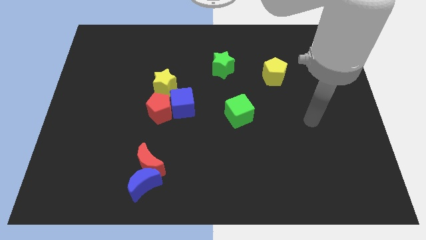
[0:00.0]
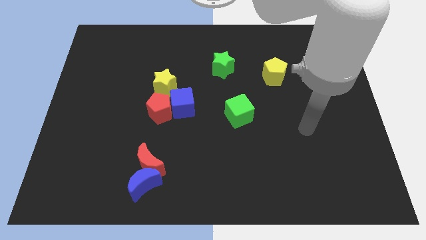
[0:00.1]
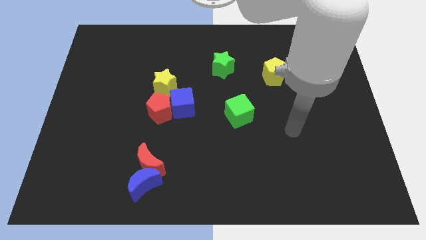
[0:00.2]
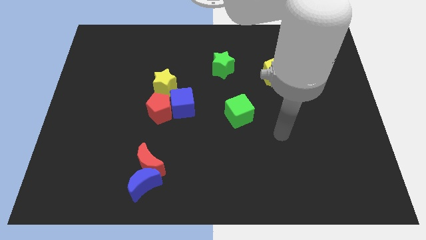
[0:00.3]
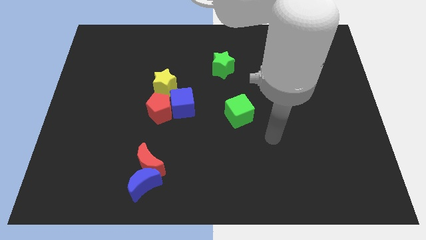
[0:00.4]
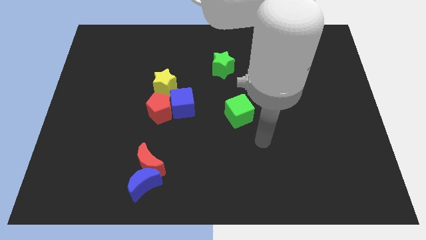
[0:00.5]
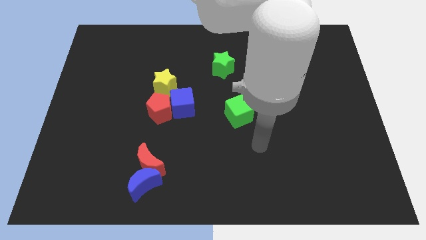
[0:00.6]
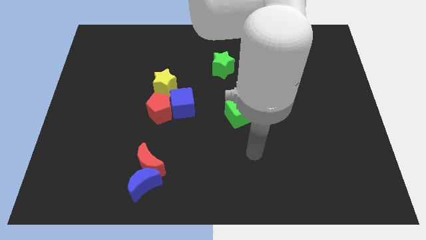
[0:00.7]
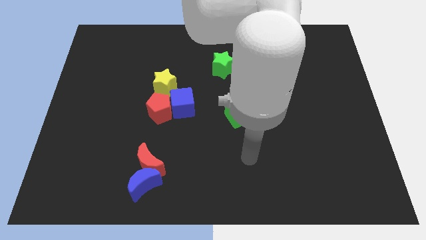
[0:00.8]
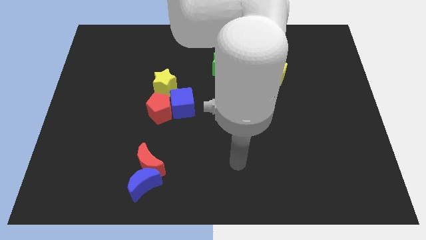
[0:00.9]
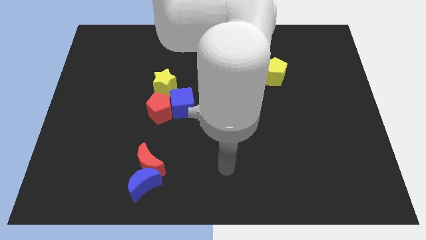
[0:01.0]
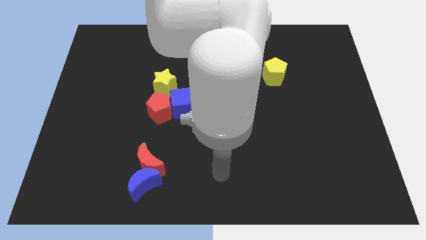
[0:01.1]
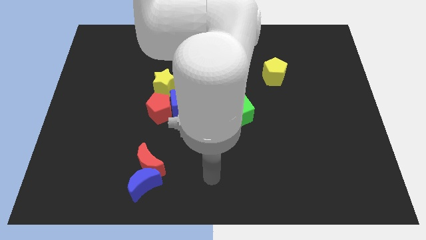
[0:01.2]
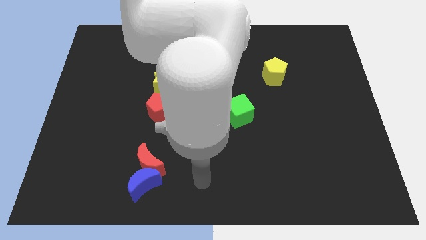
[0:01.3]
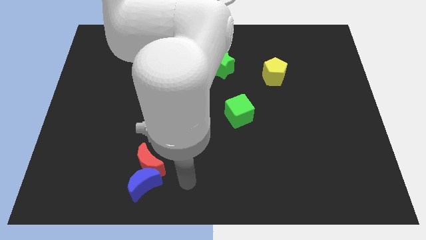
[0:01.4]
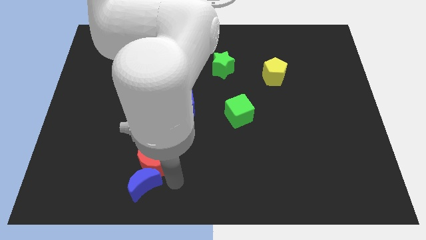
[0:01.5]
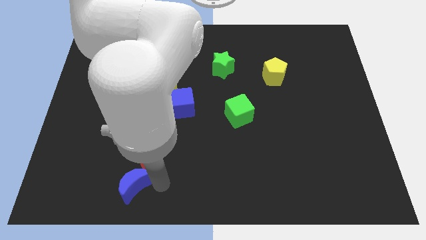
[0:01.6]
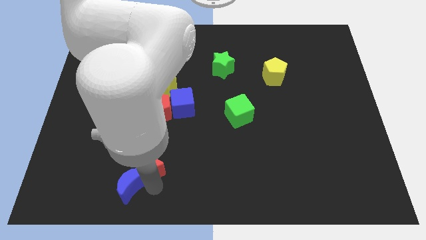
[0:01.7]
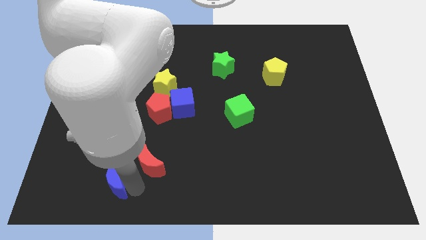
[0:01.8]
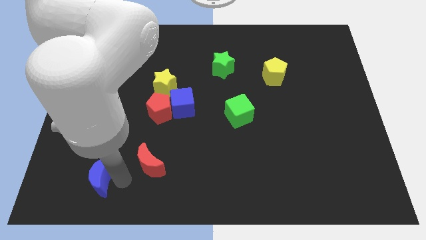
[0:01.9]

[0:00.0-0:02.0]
pull the red moon apart from the blue moon

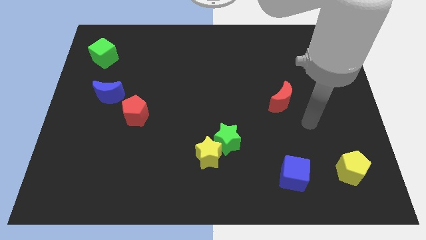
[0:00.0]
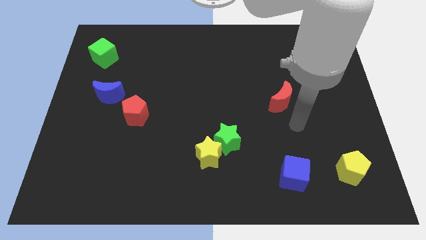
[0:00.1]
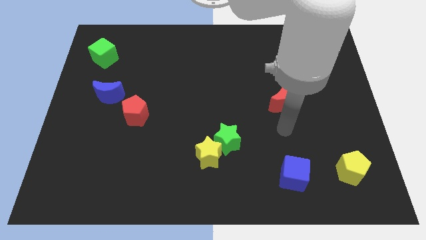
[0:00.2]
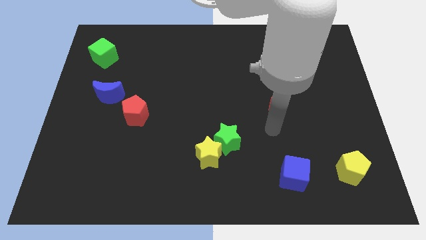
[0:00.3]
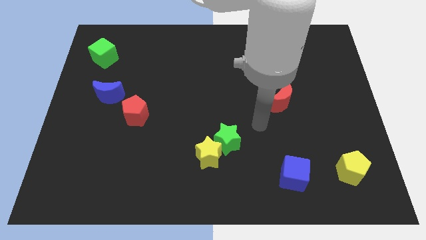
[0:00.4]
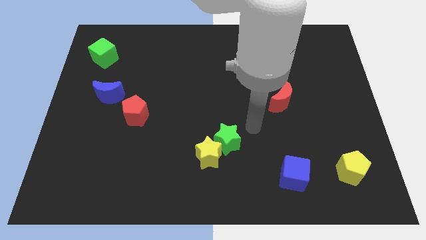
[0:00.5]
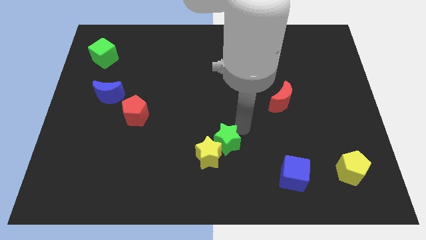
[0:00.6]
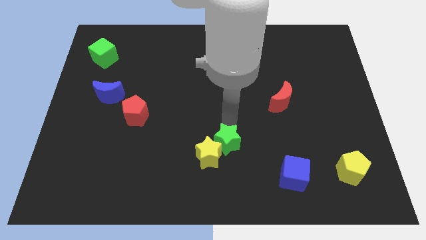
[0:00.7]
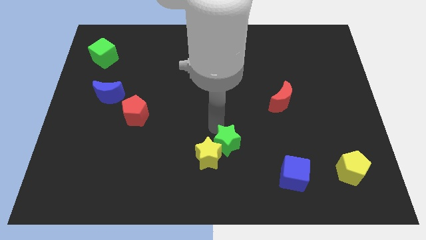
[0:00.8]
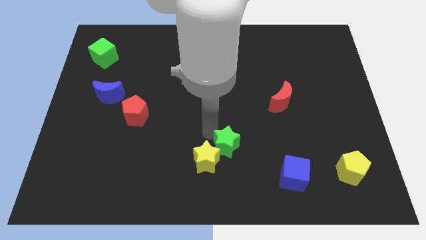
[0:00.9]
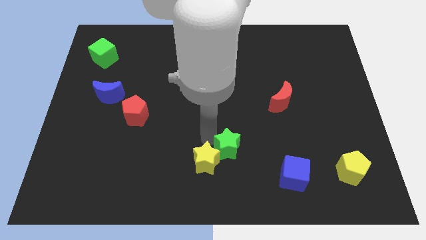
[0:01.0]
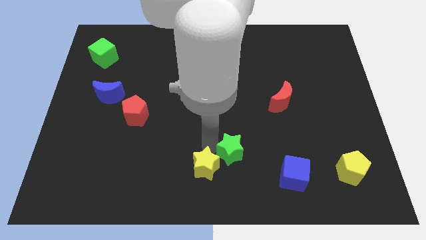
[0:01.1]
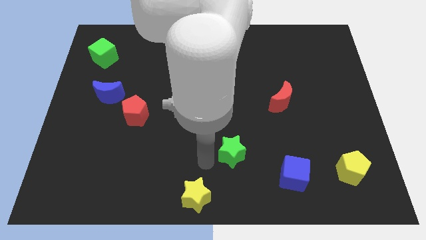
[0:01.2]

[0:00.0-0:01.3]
pull the green star apart from the yellow star

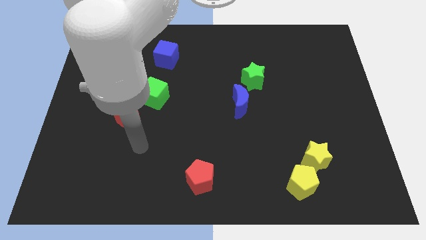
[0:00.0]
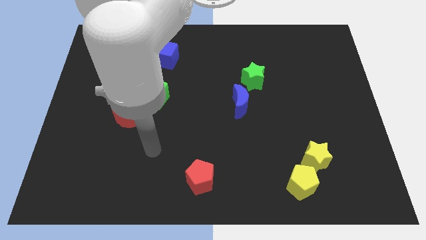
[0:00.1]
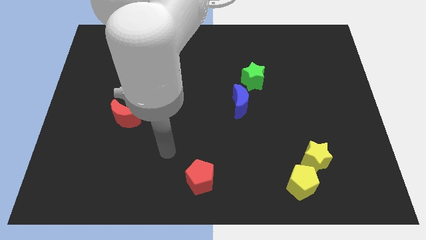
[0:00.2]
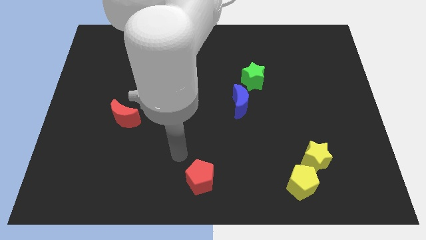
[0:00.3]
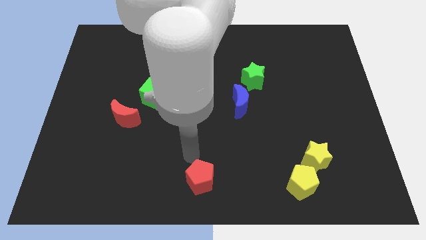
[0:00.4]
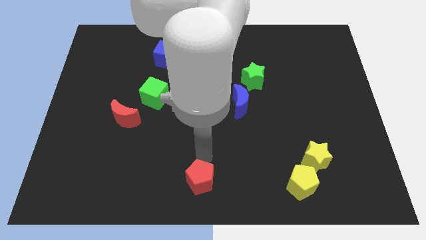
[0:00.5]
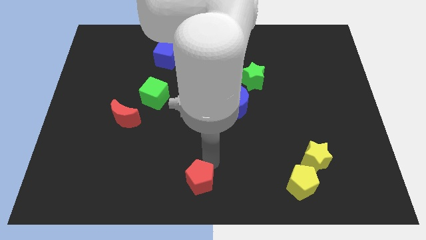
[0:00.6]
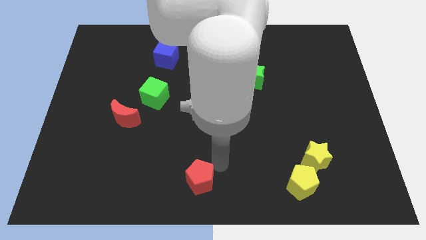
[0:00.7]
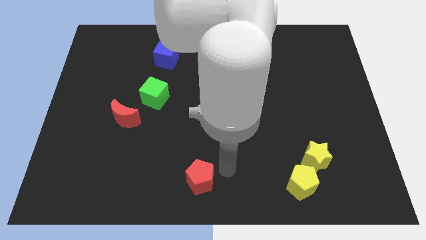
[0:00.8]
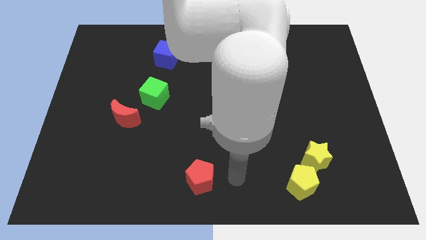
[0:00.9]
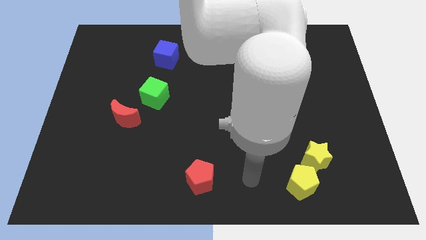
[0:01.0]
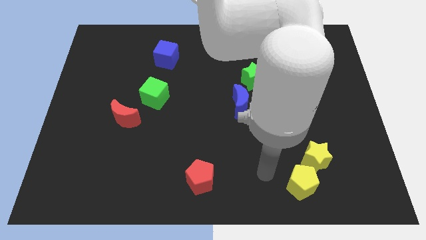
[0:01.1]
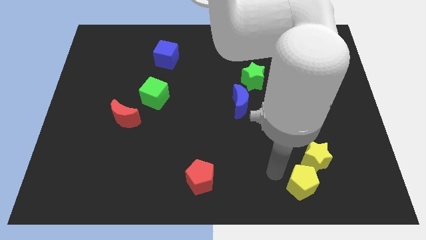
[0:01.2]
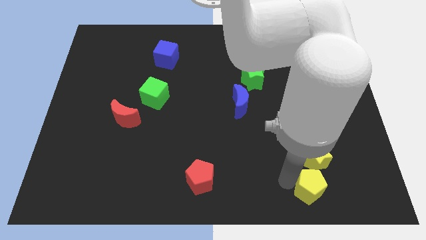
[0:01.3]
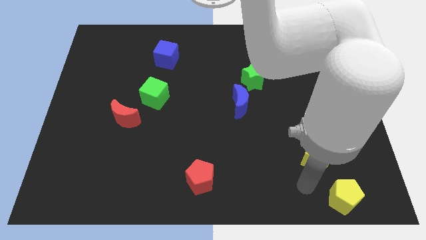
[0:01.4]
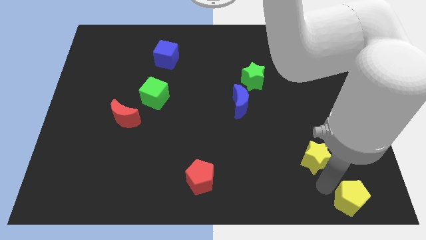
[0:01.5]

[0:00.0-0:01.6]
separate the yellow star from the yellow pentagon

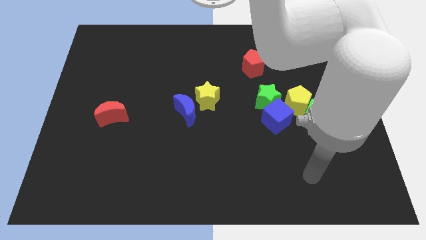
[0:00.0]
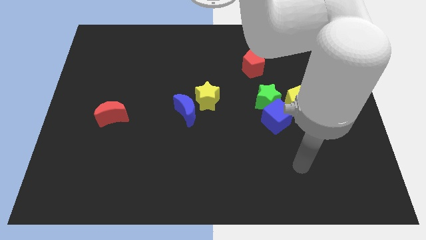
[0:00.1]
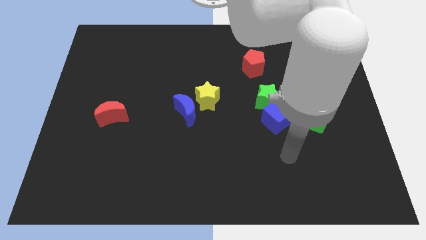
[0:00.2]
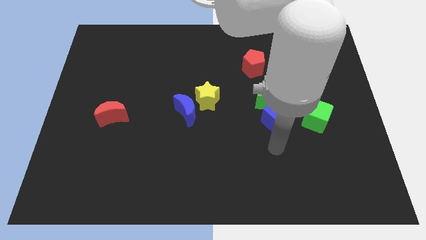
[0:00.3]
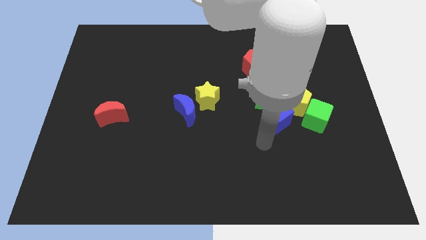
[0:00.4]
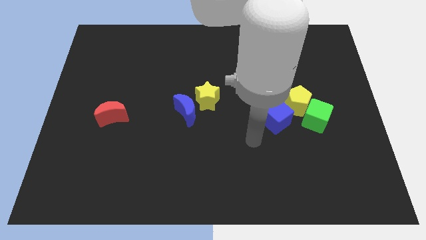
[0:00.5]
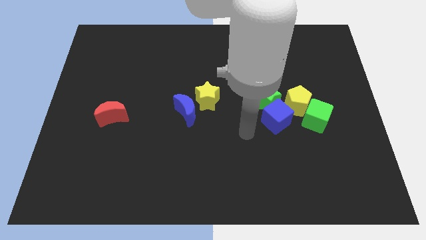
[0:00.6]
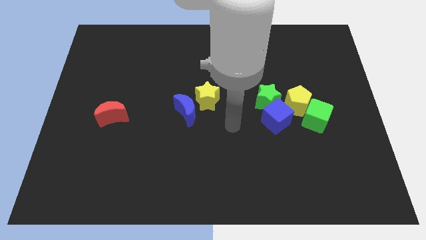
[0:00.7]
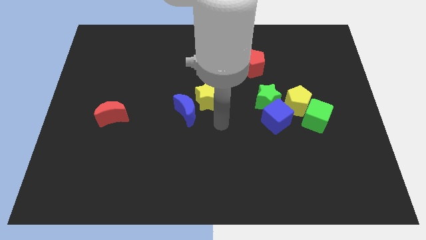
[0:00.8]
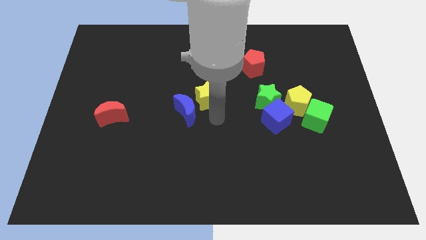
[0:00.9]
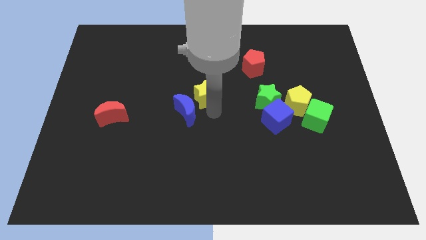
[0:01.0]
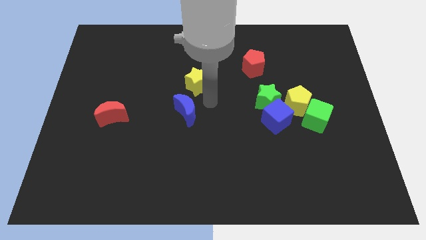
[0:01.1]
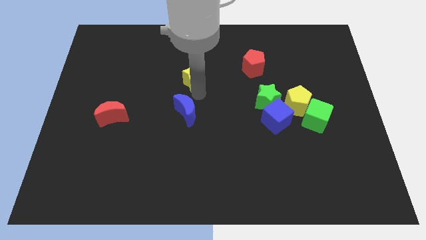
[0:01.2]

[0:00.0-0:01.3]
pull the blue moon apart from the yellow star

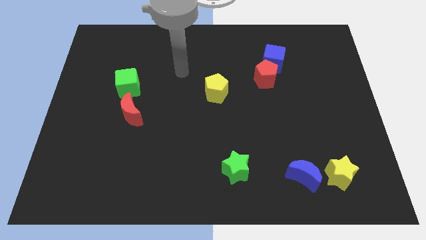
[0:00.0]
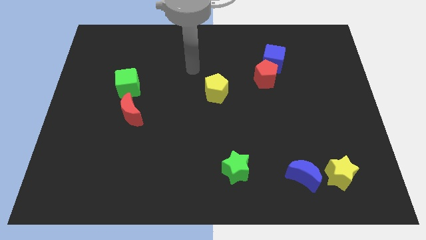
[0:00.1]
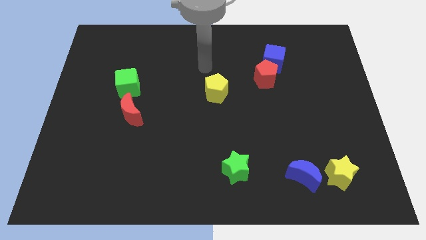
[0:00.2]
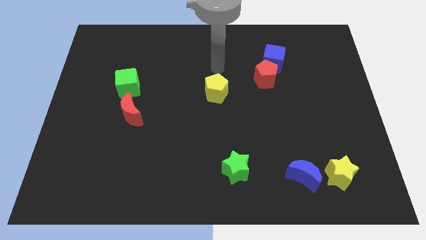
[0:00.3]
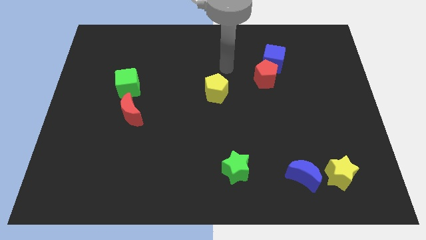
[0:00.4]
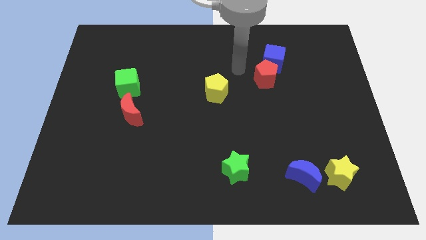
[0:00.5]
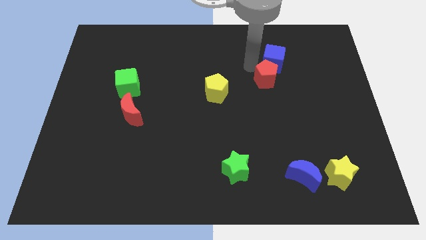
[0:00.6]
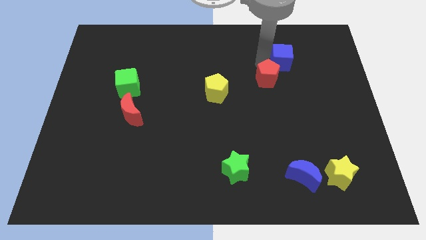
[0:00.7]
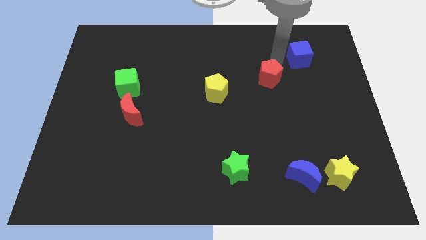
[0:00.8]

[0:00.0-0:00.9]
pull the red pentagon apart from the blue cube

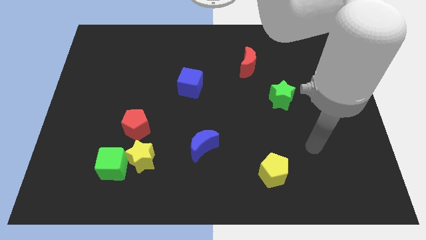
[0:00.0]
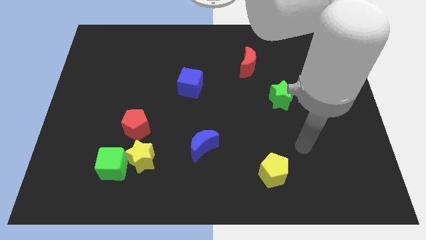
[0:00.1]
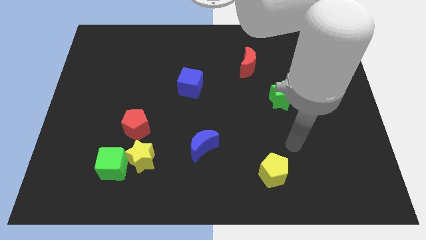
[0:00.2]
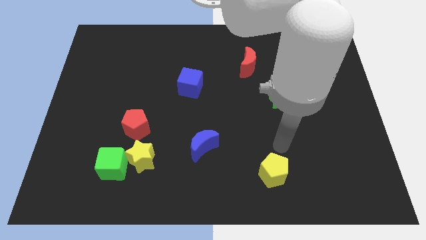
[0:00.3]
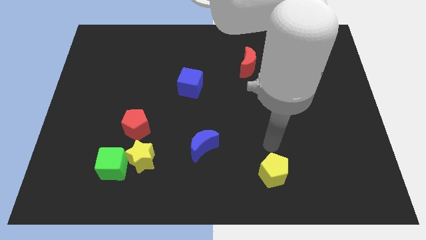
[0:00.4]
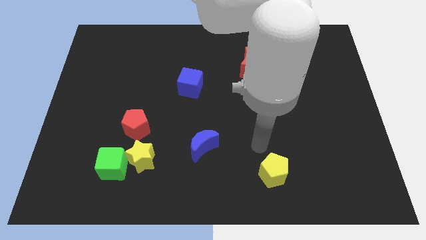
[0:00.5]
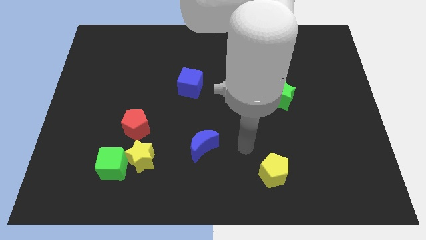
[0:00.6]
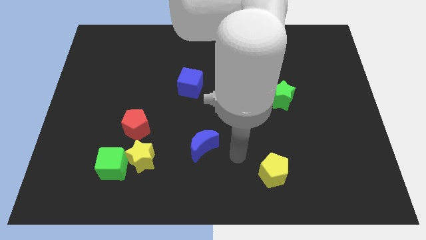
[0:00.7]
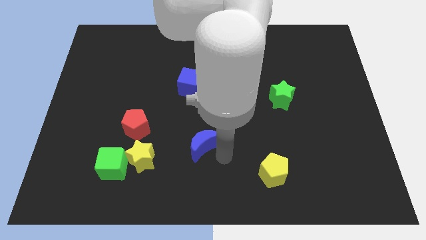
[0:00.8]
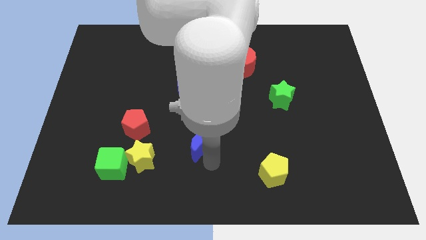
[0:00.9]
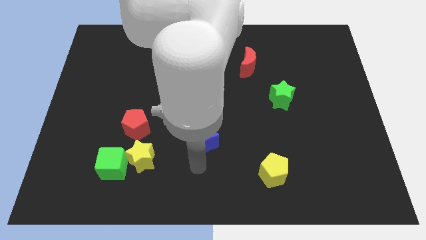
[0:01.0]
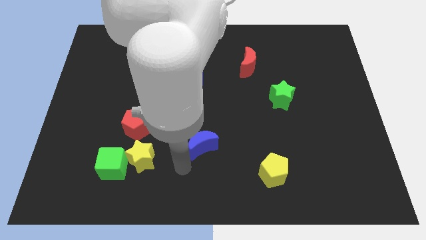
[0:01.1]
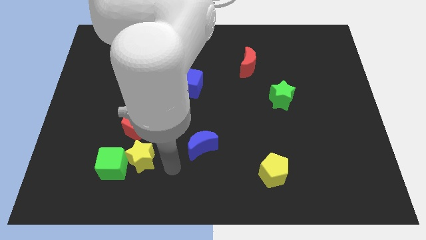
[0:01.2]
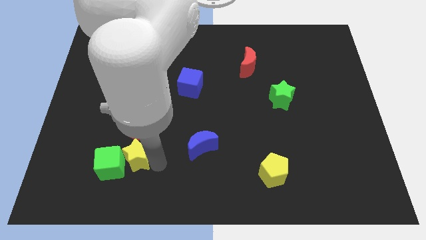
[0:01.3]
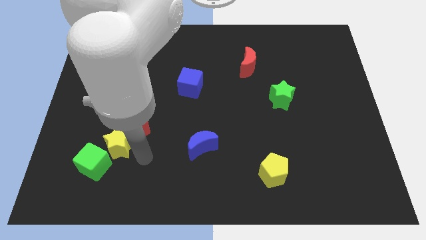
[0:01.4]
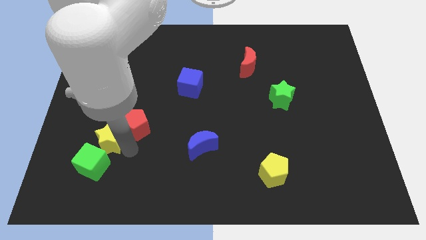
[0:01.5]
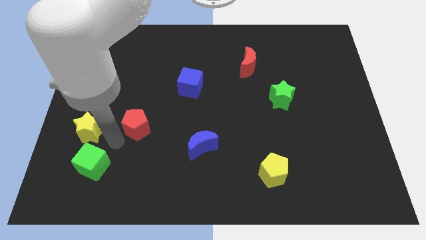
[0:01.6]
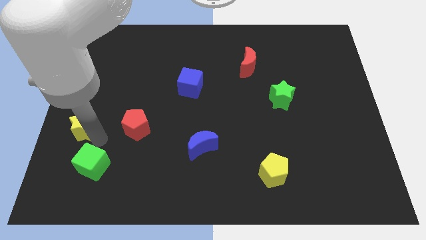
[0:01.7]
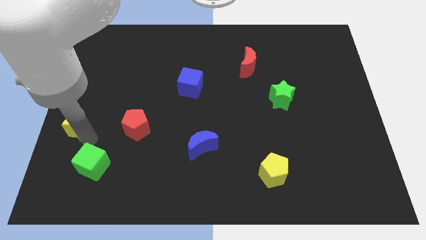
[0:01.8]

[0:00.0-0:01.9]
separate the green cube from the yellow star

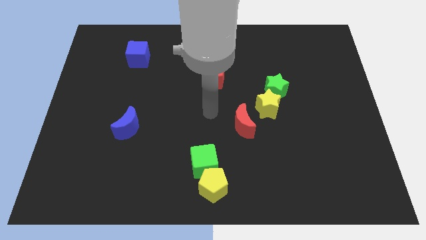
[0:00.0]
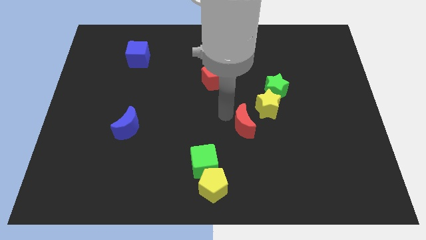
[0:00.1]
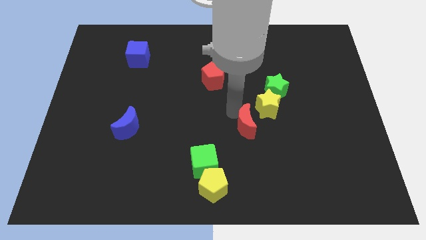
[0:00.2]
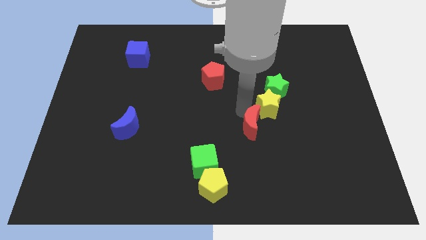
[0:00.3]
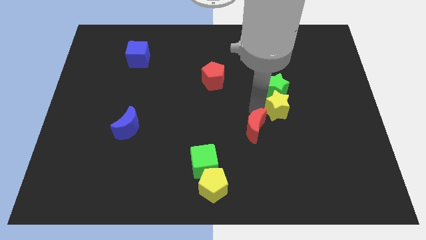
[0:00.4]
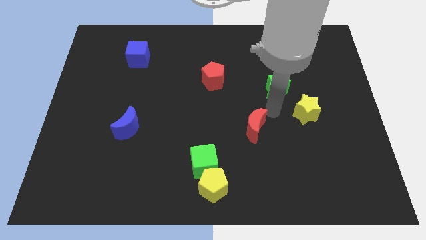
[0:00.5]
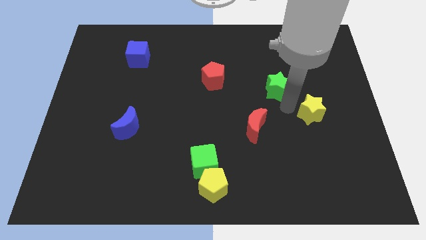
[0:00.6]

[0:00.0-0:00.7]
separate the green star from the yellow star
